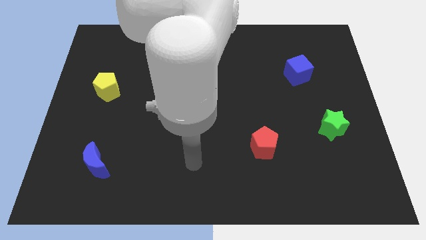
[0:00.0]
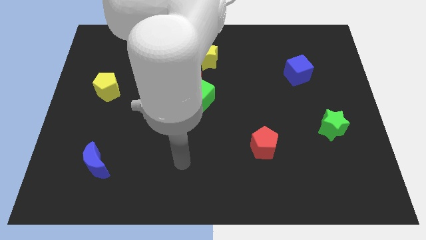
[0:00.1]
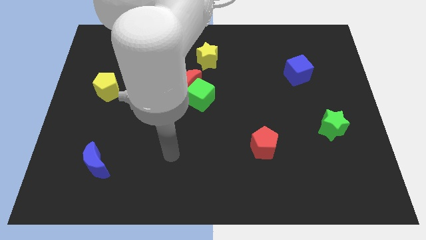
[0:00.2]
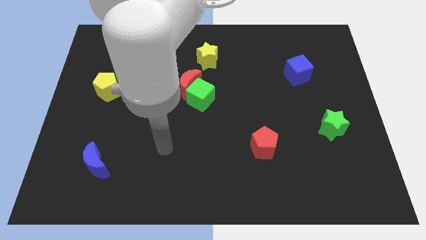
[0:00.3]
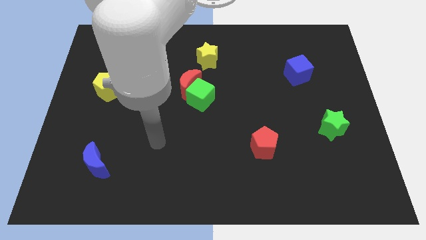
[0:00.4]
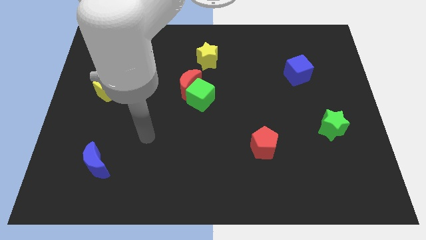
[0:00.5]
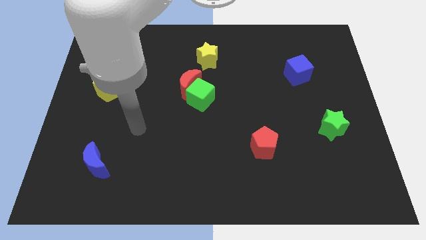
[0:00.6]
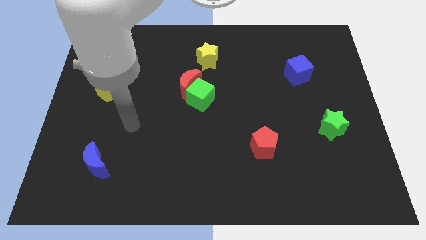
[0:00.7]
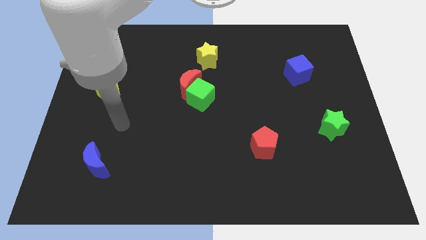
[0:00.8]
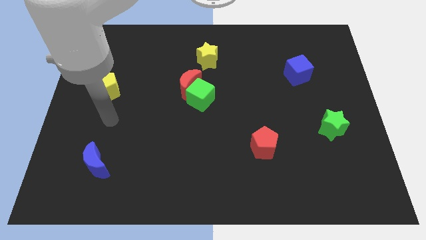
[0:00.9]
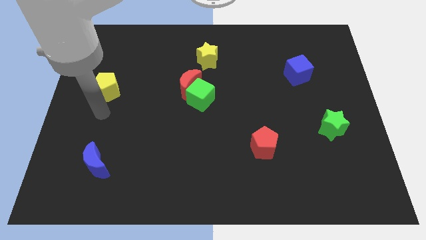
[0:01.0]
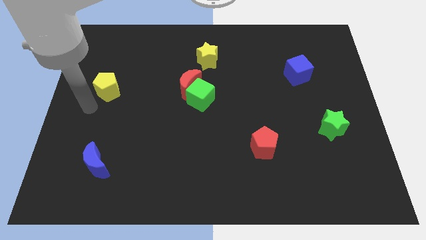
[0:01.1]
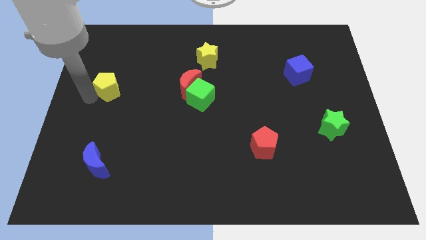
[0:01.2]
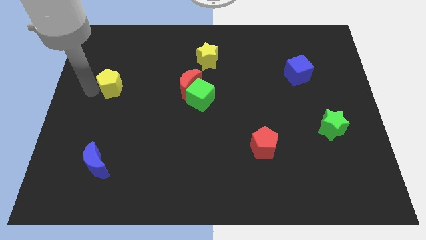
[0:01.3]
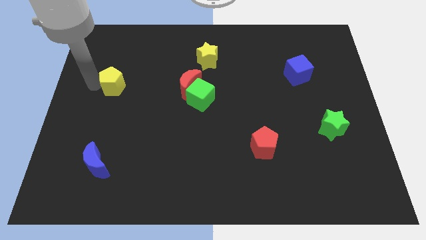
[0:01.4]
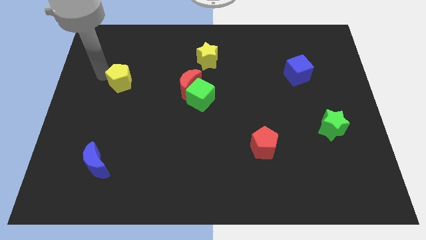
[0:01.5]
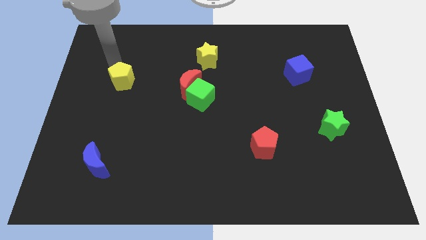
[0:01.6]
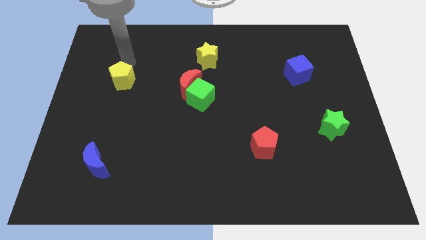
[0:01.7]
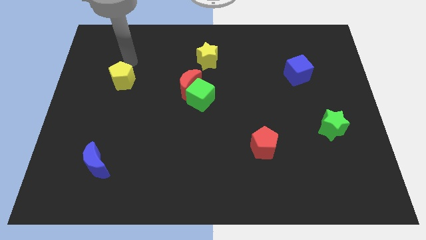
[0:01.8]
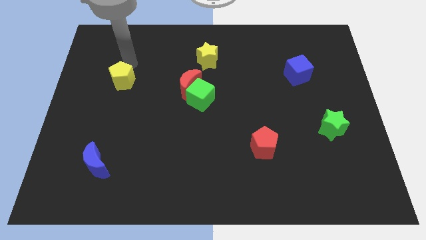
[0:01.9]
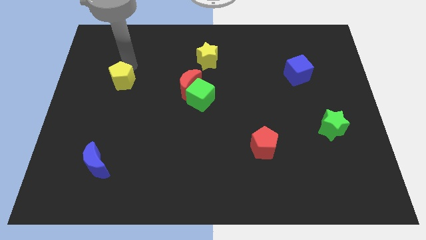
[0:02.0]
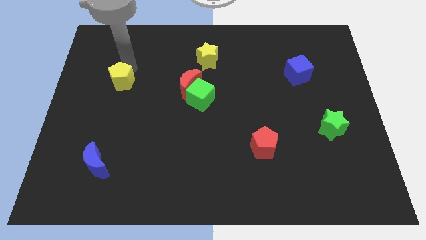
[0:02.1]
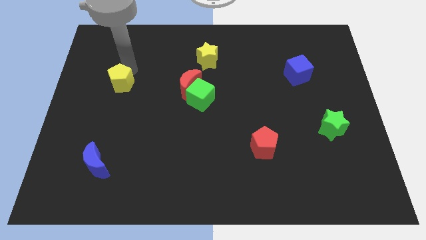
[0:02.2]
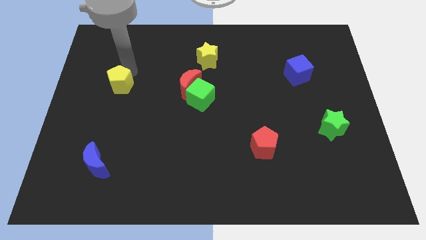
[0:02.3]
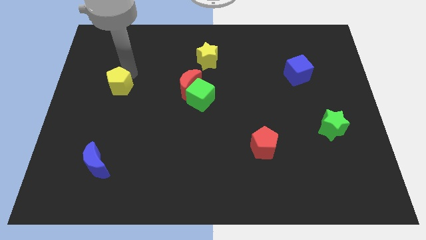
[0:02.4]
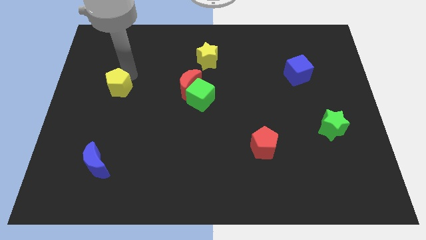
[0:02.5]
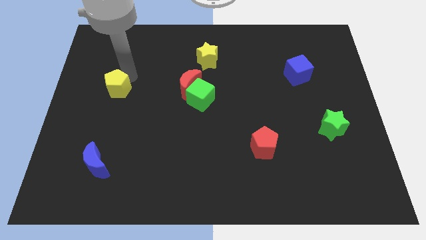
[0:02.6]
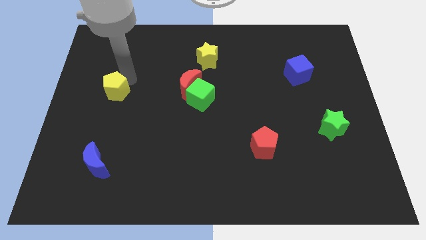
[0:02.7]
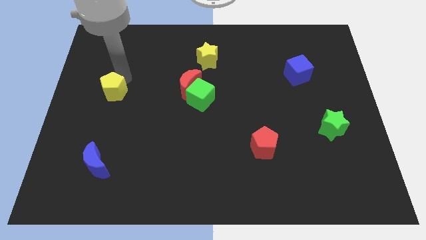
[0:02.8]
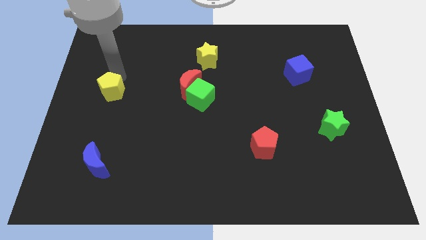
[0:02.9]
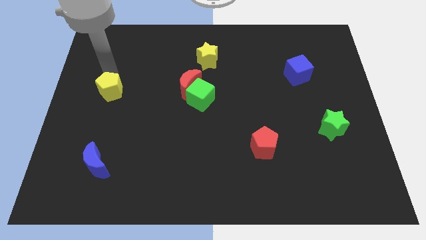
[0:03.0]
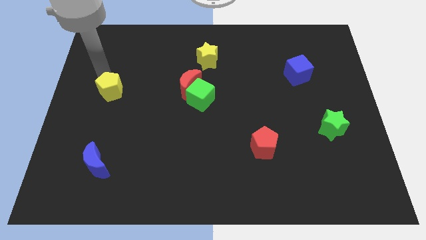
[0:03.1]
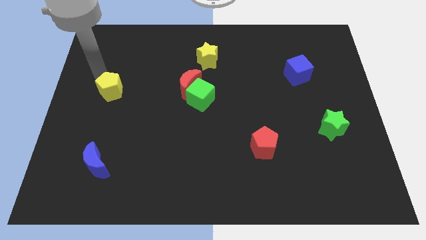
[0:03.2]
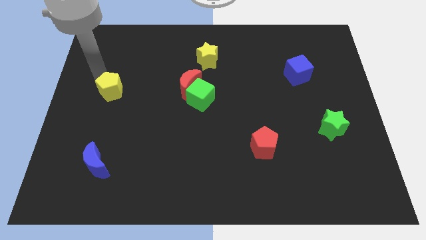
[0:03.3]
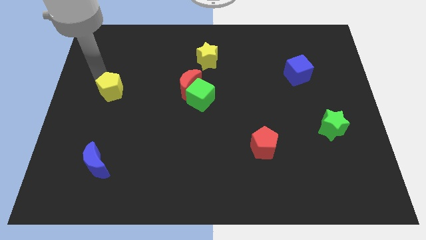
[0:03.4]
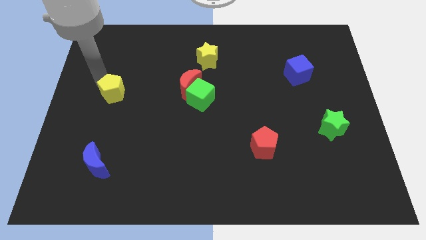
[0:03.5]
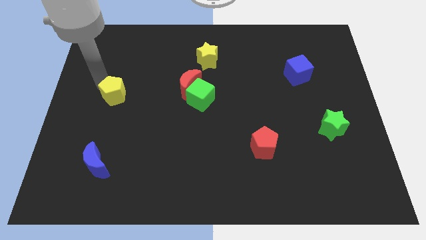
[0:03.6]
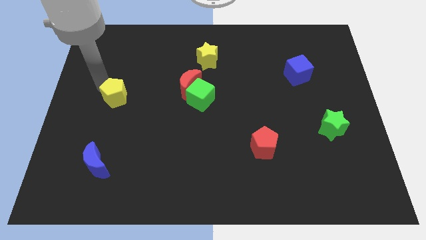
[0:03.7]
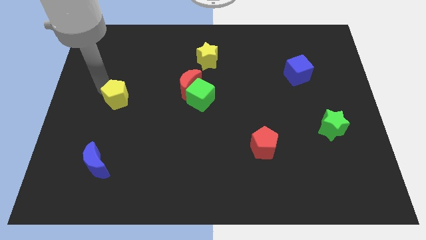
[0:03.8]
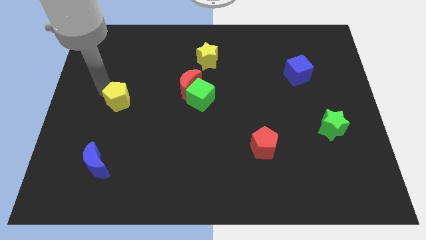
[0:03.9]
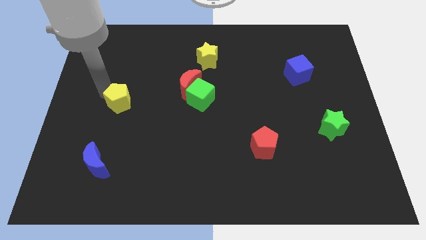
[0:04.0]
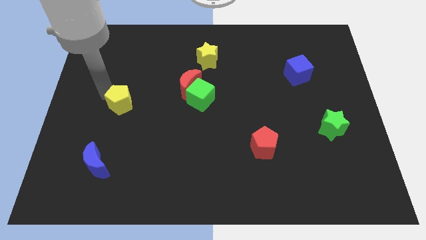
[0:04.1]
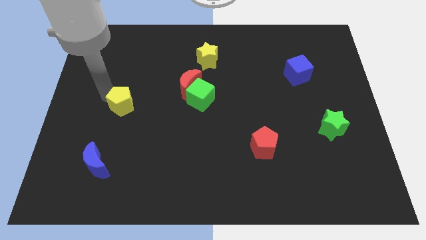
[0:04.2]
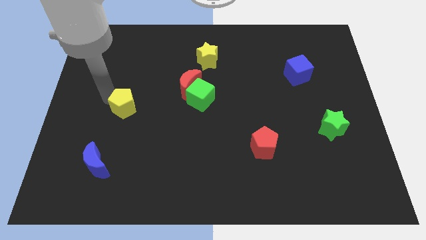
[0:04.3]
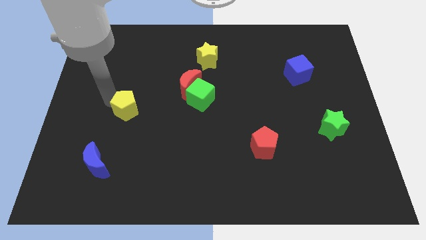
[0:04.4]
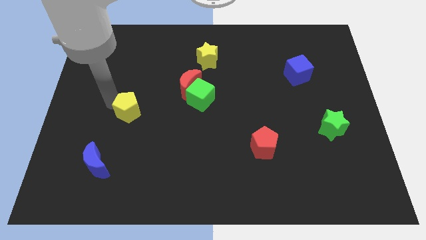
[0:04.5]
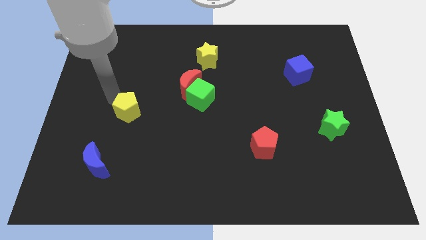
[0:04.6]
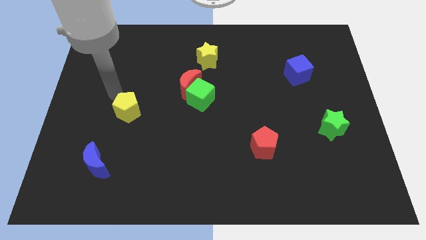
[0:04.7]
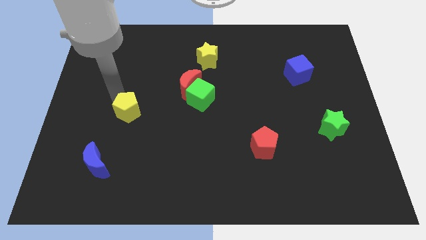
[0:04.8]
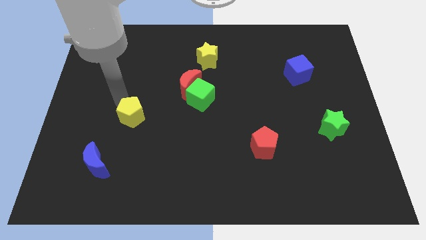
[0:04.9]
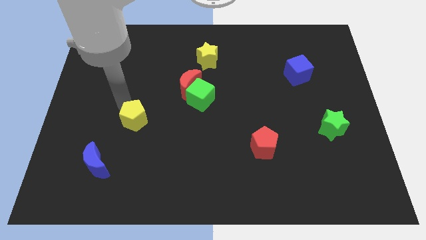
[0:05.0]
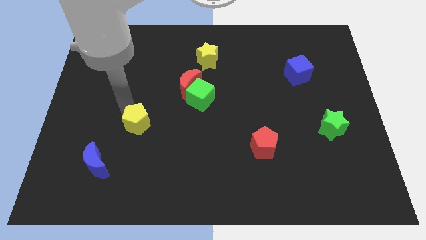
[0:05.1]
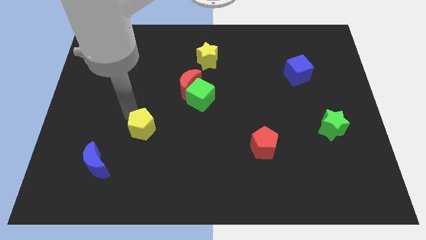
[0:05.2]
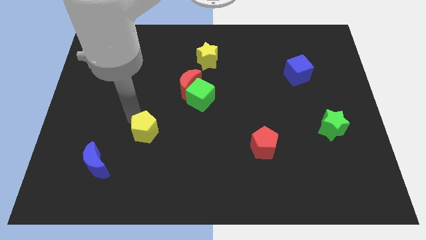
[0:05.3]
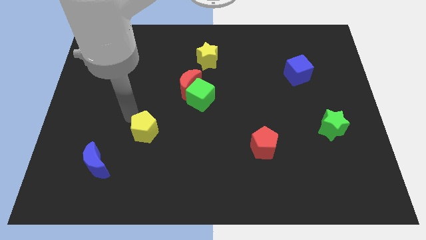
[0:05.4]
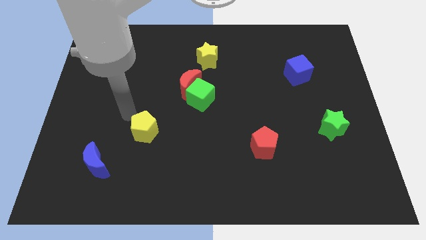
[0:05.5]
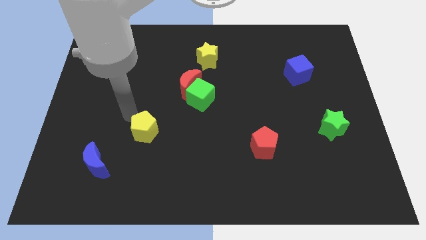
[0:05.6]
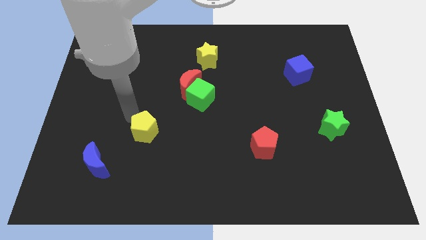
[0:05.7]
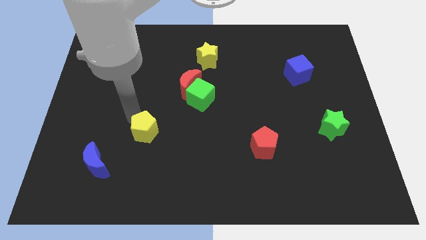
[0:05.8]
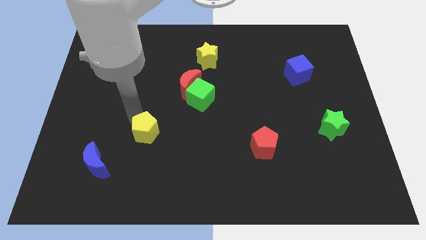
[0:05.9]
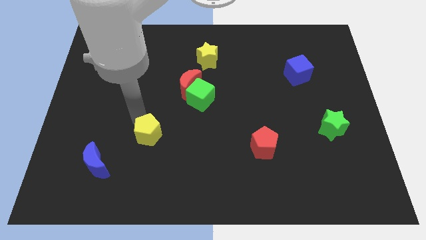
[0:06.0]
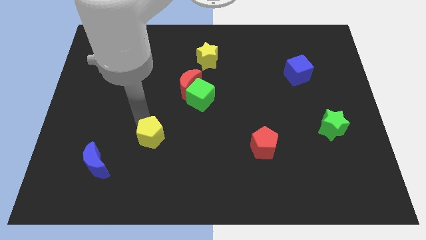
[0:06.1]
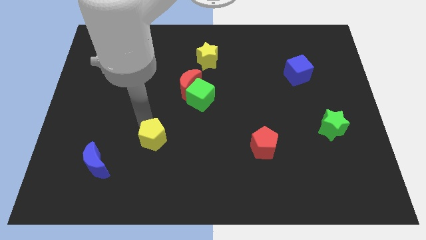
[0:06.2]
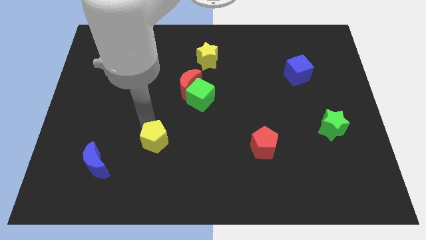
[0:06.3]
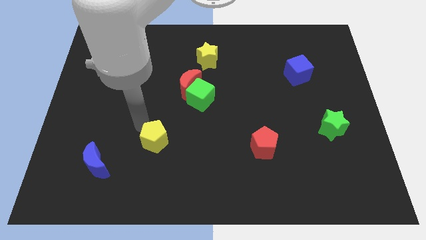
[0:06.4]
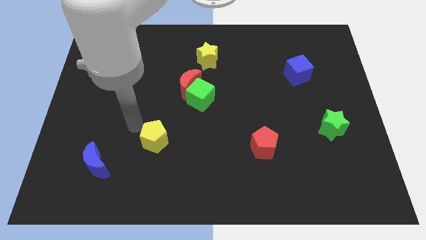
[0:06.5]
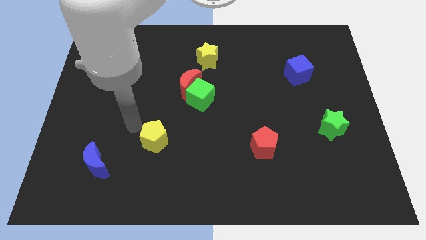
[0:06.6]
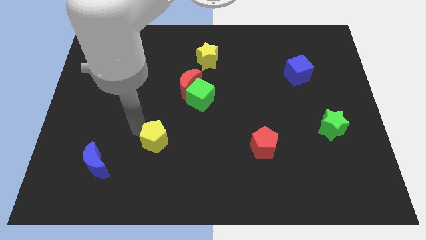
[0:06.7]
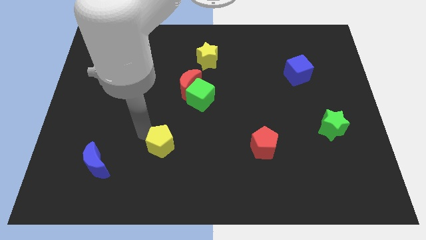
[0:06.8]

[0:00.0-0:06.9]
move the yellow pentagon diagonally down and right

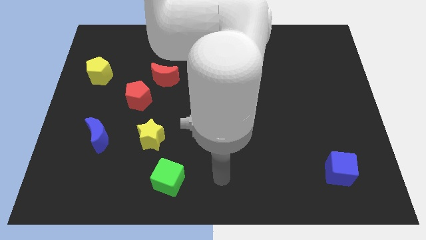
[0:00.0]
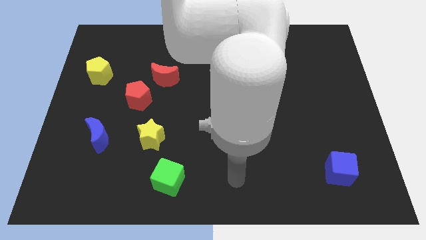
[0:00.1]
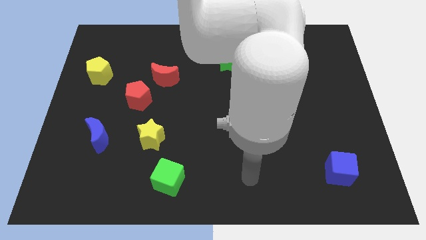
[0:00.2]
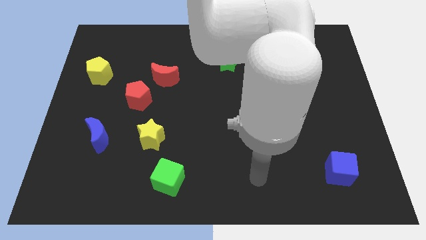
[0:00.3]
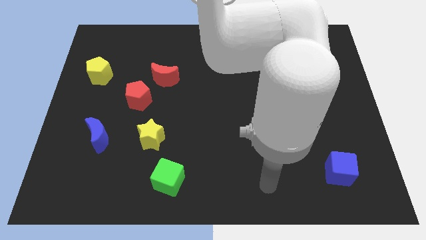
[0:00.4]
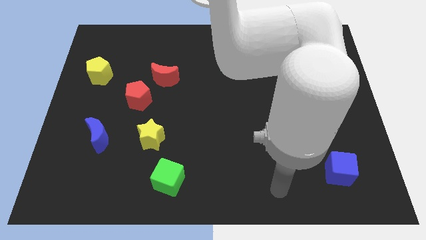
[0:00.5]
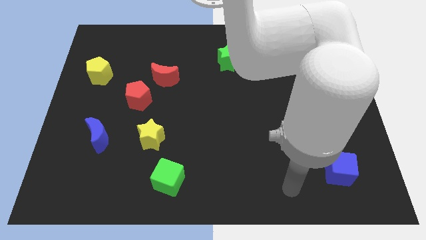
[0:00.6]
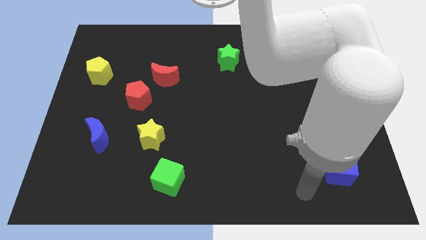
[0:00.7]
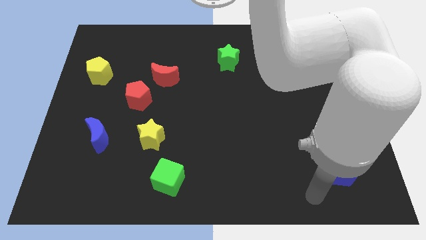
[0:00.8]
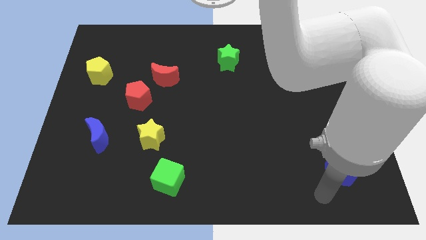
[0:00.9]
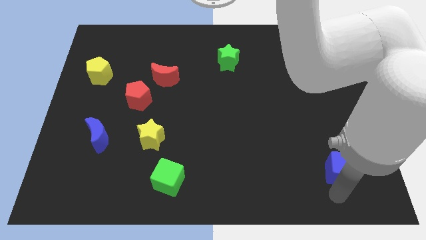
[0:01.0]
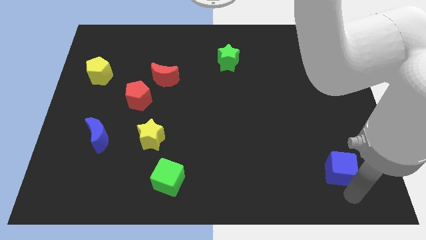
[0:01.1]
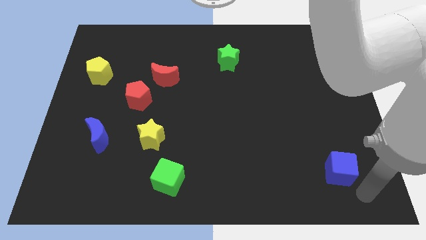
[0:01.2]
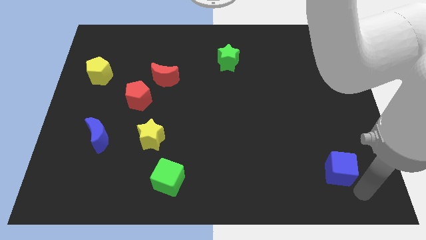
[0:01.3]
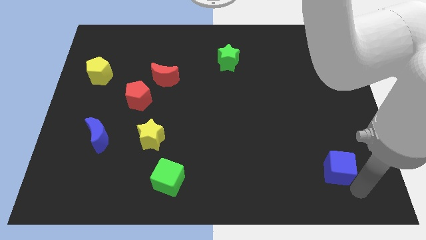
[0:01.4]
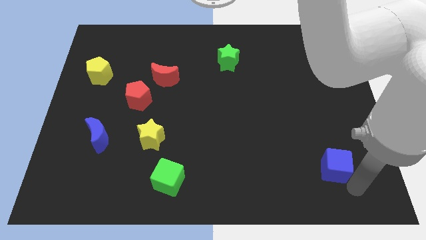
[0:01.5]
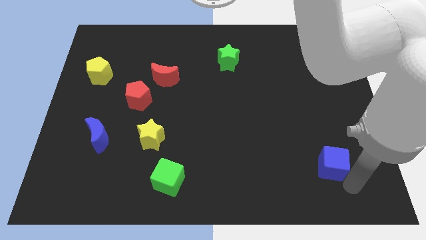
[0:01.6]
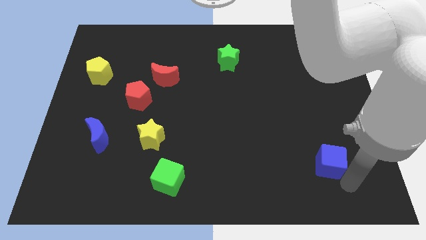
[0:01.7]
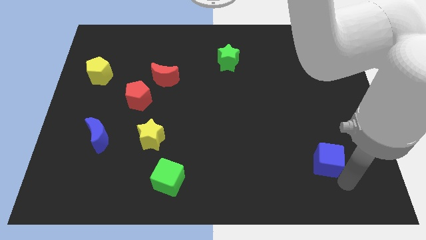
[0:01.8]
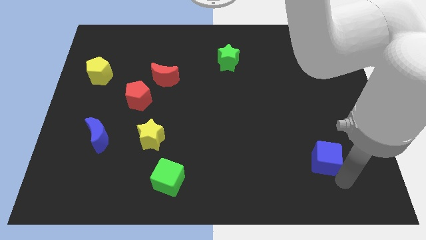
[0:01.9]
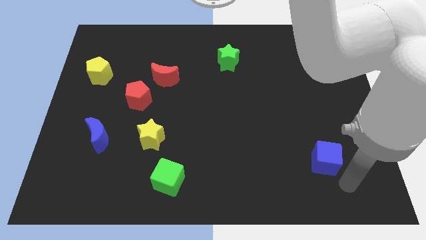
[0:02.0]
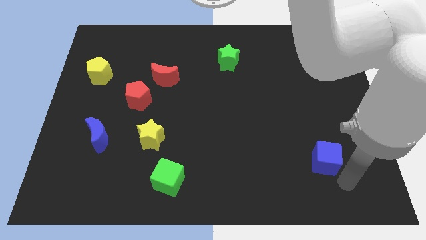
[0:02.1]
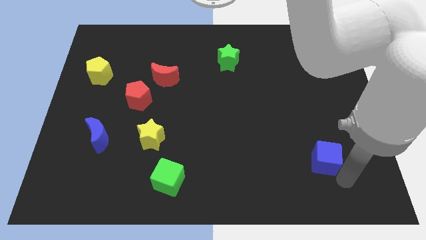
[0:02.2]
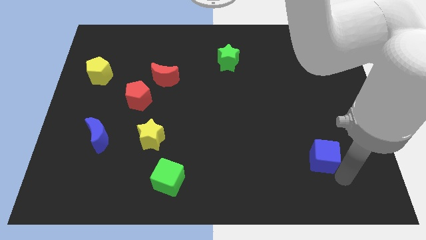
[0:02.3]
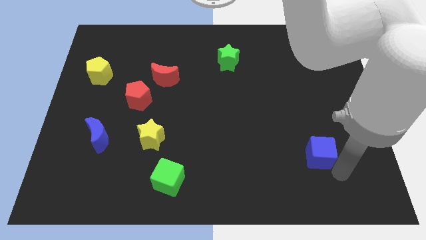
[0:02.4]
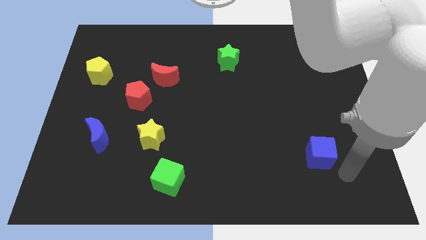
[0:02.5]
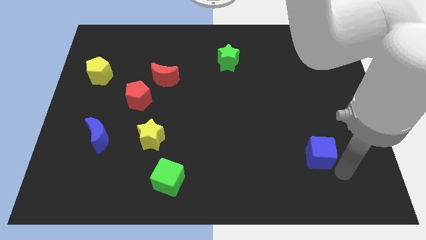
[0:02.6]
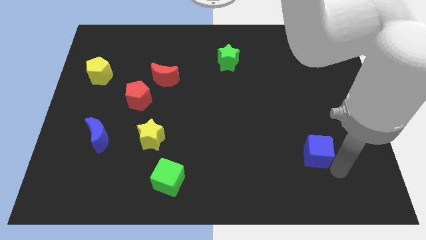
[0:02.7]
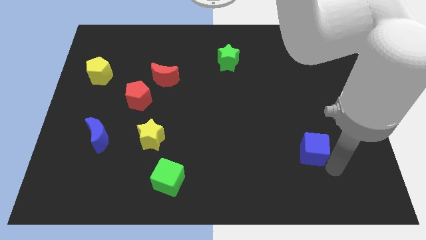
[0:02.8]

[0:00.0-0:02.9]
slide the blue cube upwards and to the left somewhat
